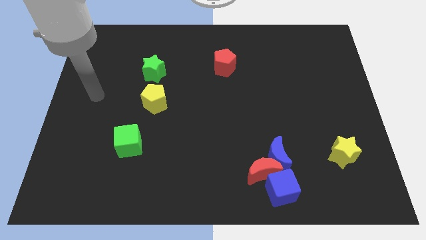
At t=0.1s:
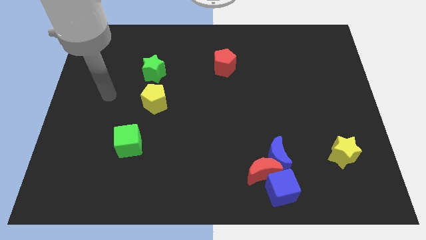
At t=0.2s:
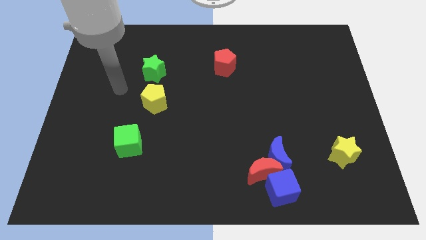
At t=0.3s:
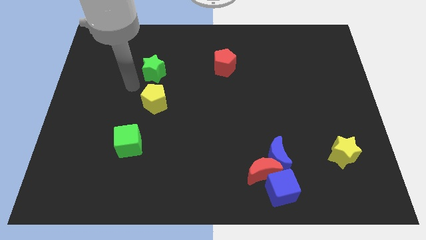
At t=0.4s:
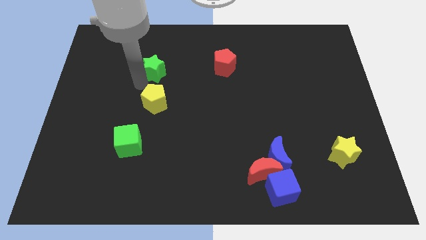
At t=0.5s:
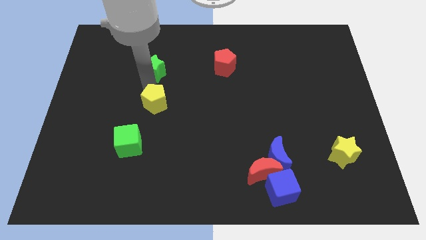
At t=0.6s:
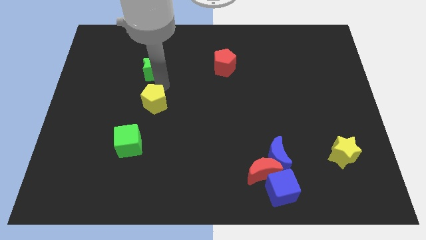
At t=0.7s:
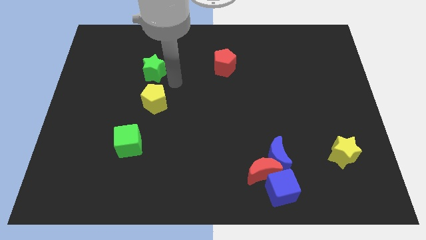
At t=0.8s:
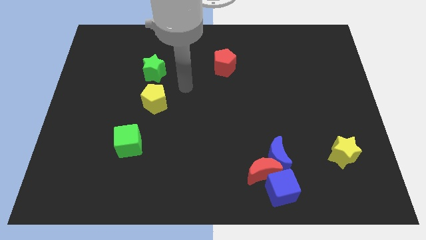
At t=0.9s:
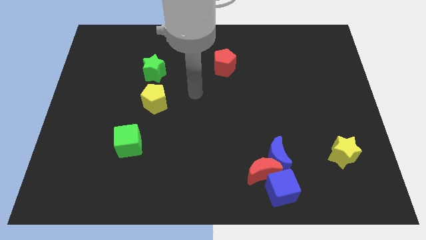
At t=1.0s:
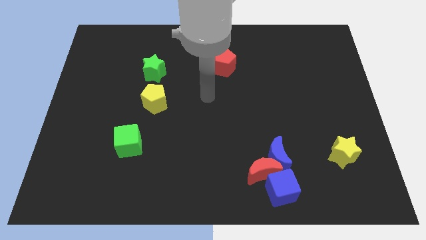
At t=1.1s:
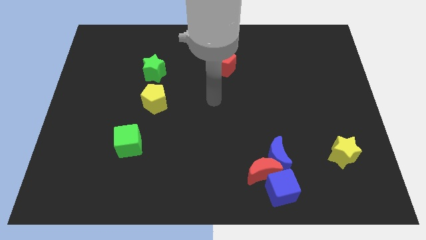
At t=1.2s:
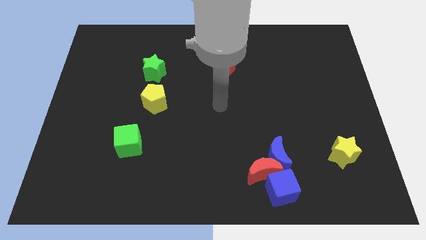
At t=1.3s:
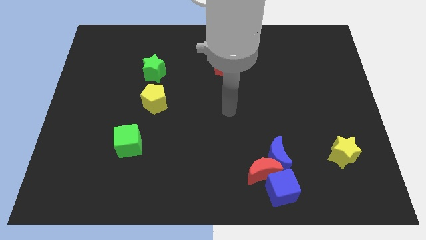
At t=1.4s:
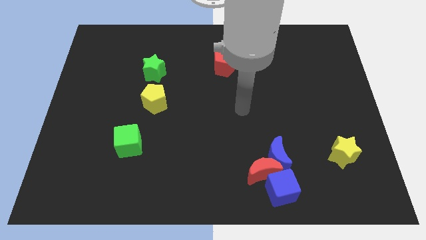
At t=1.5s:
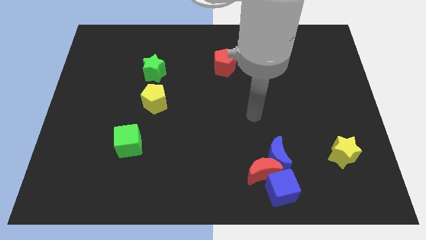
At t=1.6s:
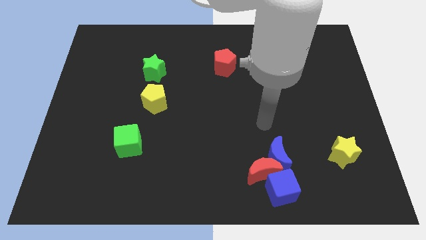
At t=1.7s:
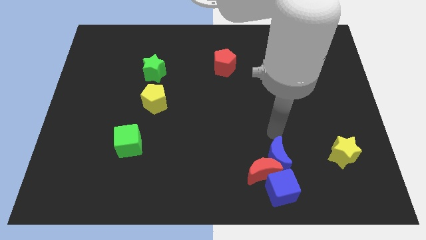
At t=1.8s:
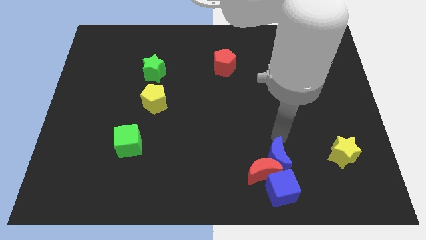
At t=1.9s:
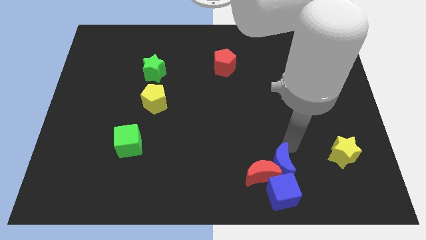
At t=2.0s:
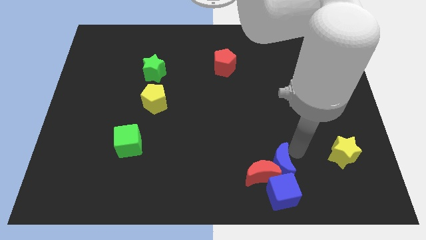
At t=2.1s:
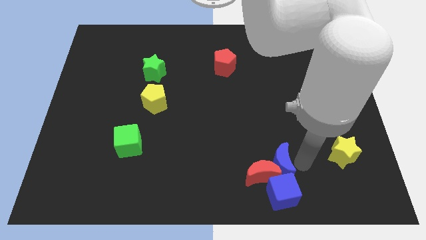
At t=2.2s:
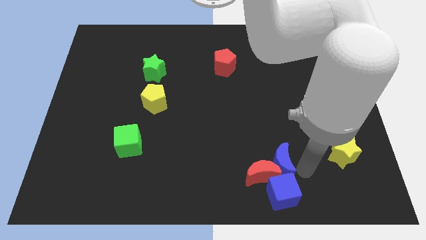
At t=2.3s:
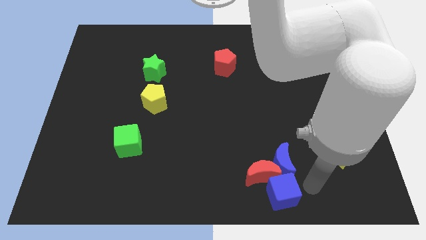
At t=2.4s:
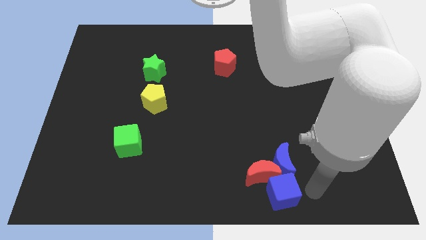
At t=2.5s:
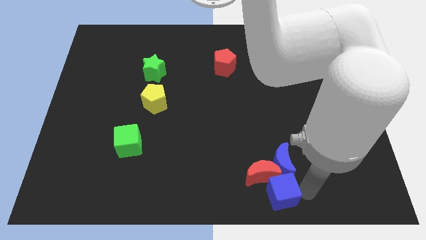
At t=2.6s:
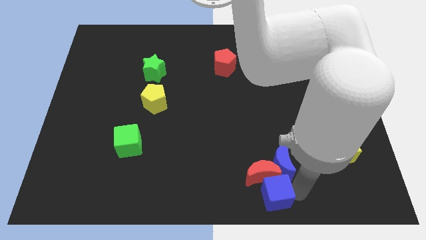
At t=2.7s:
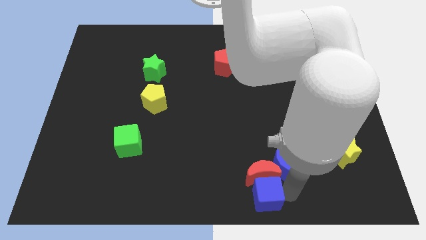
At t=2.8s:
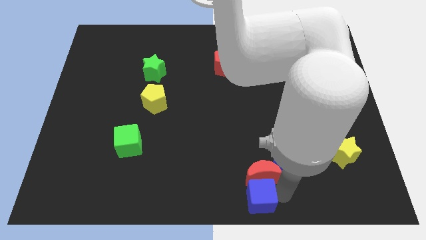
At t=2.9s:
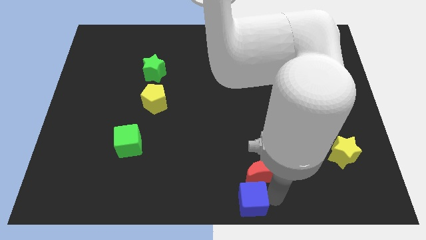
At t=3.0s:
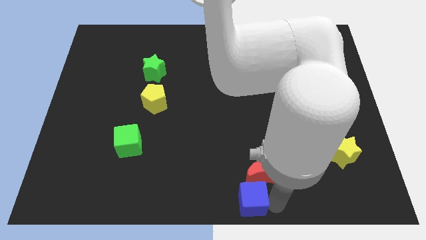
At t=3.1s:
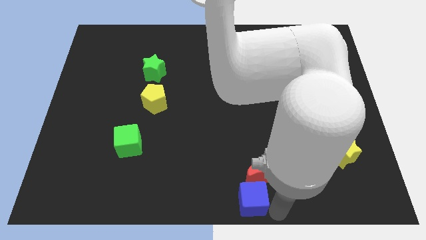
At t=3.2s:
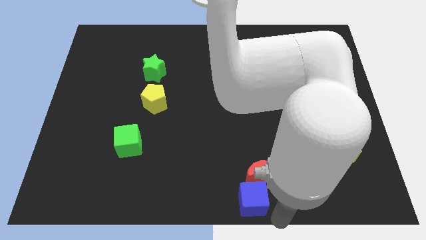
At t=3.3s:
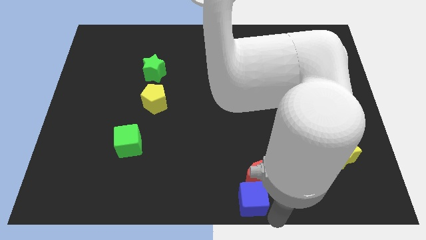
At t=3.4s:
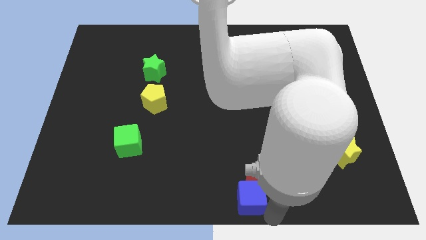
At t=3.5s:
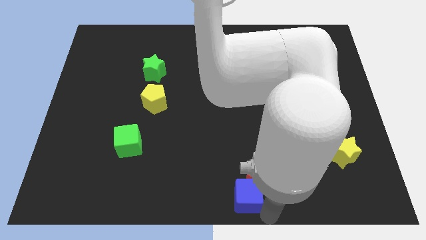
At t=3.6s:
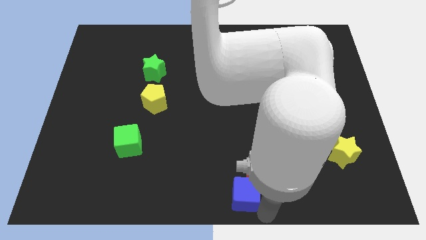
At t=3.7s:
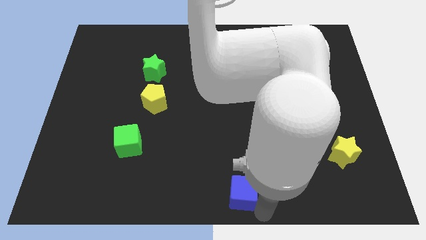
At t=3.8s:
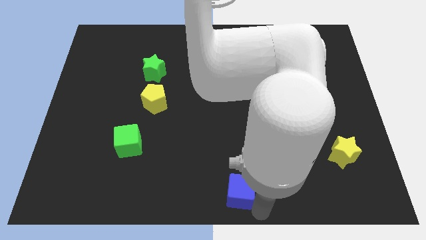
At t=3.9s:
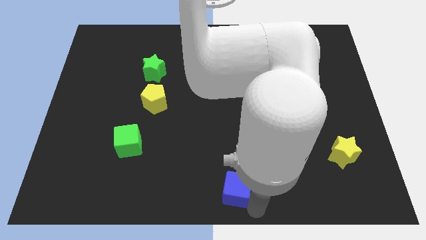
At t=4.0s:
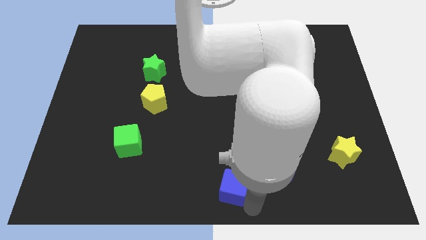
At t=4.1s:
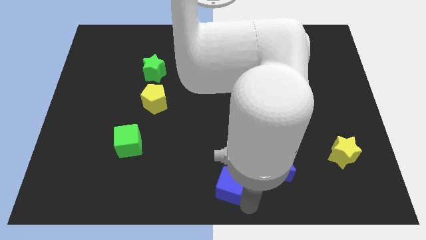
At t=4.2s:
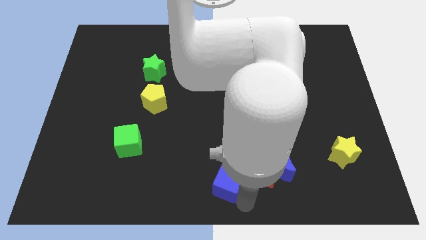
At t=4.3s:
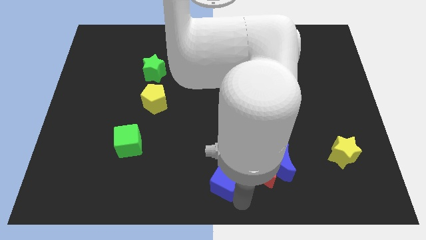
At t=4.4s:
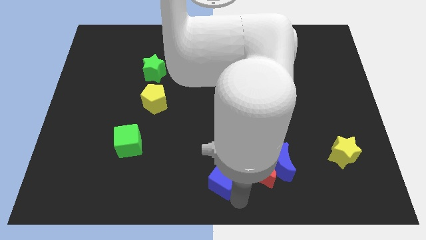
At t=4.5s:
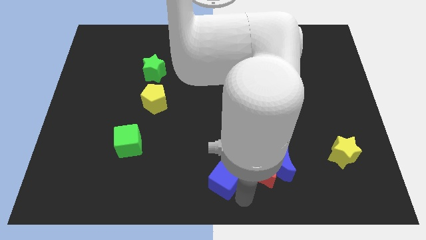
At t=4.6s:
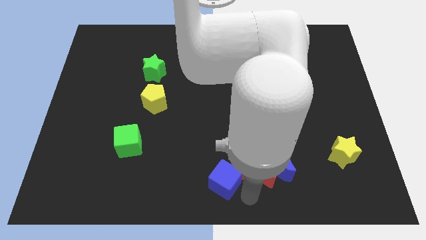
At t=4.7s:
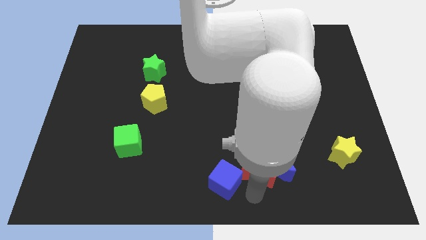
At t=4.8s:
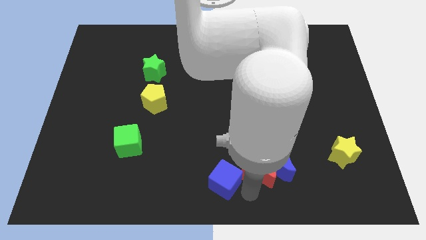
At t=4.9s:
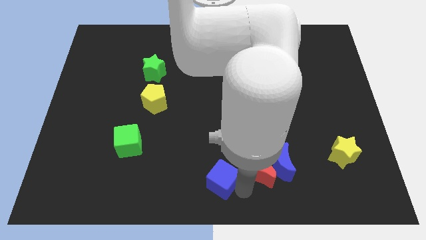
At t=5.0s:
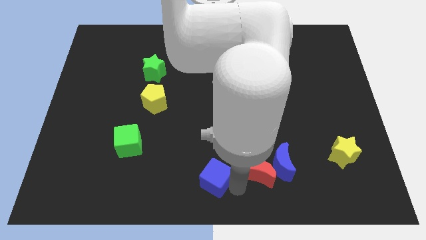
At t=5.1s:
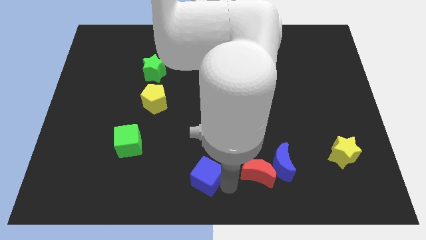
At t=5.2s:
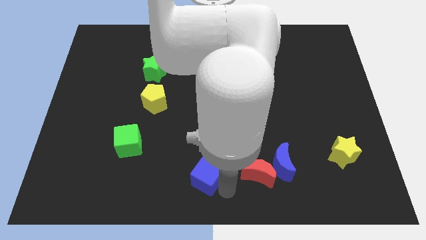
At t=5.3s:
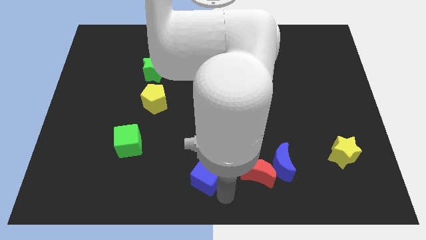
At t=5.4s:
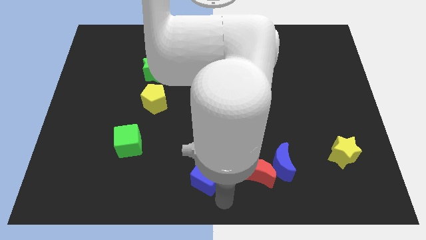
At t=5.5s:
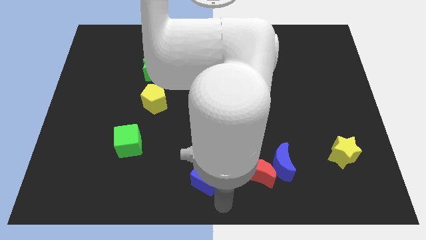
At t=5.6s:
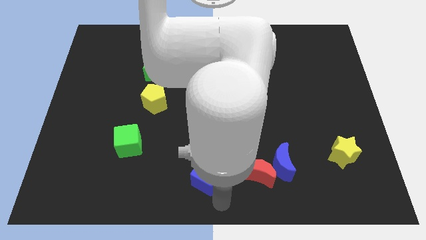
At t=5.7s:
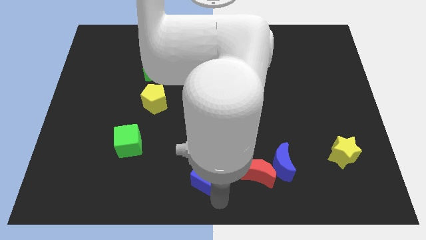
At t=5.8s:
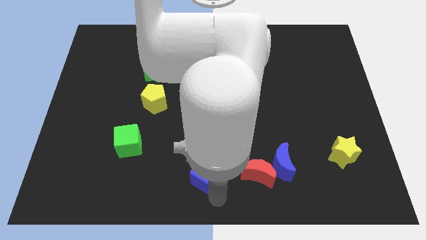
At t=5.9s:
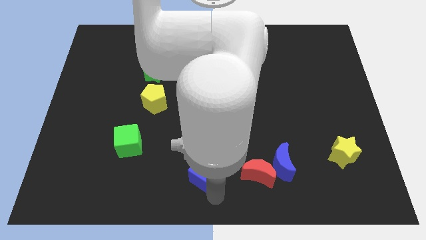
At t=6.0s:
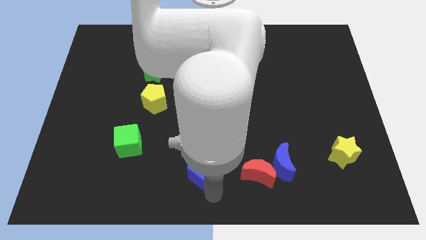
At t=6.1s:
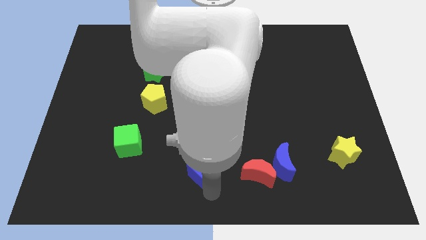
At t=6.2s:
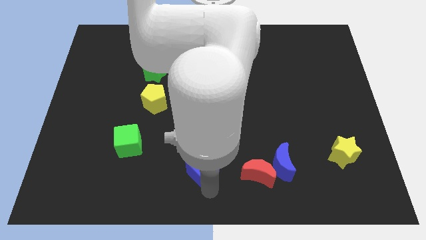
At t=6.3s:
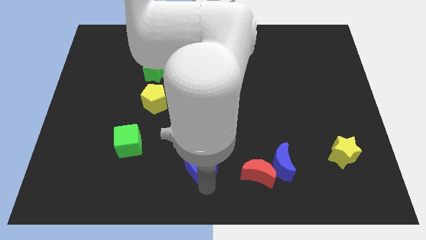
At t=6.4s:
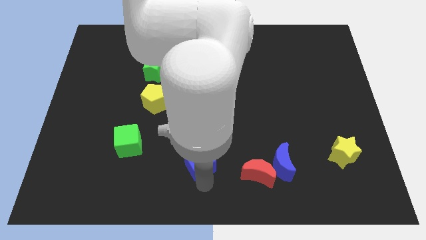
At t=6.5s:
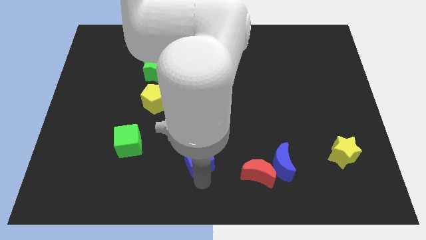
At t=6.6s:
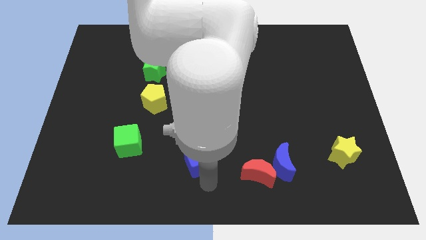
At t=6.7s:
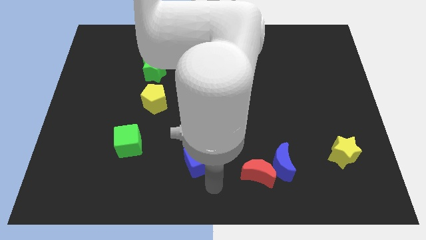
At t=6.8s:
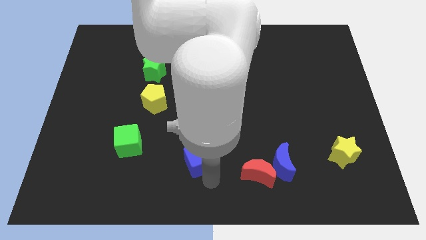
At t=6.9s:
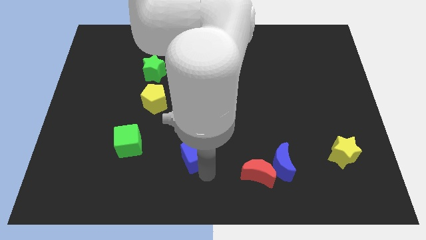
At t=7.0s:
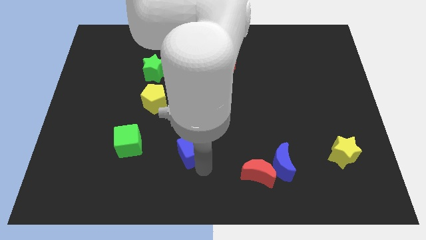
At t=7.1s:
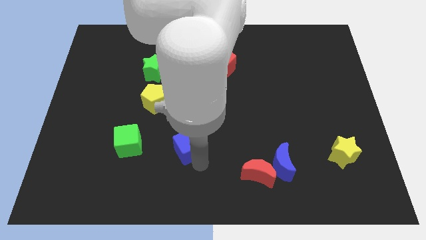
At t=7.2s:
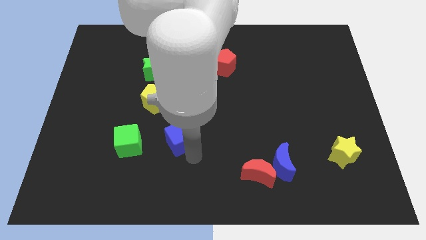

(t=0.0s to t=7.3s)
push the blue cube diagonally upwards and to the left

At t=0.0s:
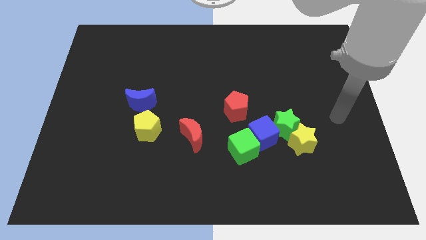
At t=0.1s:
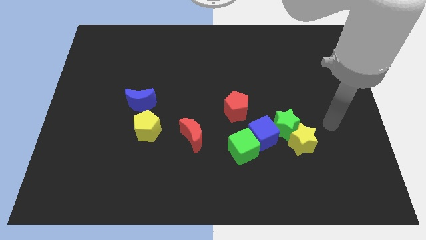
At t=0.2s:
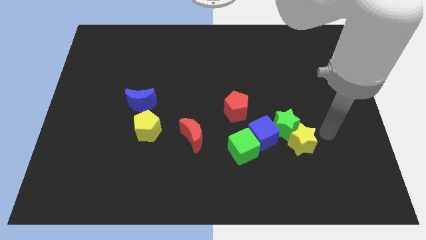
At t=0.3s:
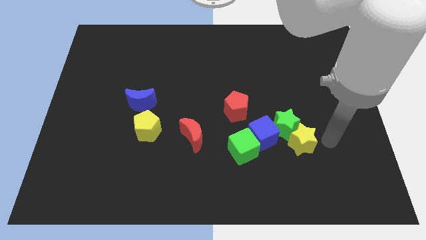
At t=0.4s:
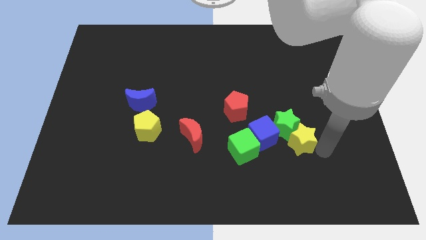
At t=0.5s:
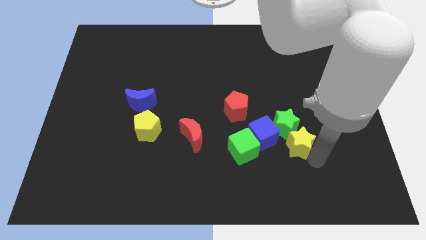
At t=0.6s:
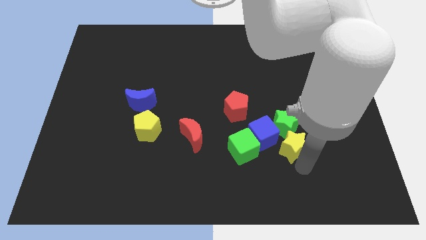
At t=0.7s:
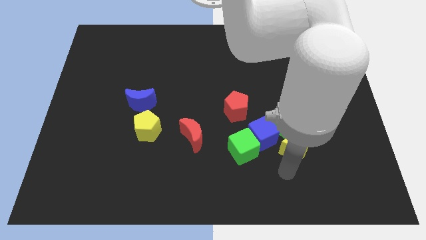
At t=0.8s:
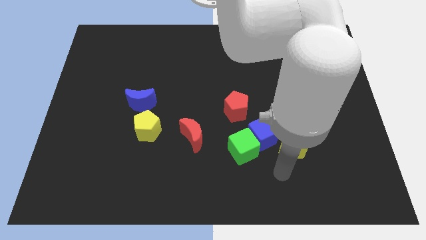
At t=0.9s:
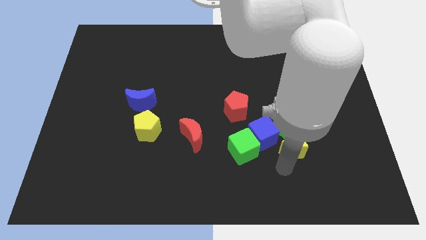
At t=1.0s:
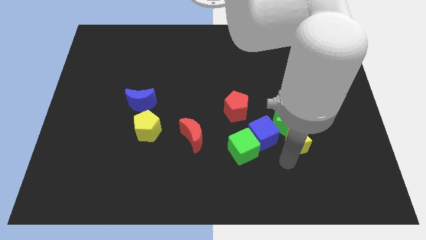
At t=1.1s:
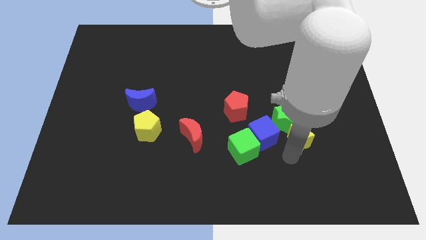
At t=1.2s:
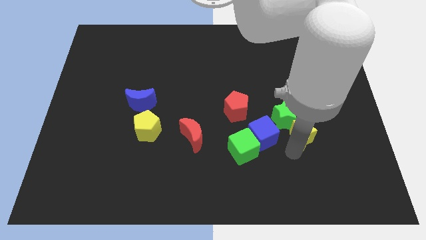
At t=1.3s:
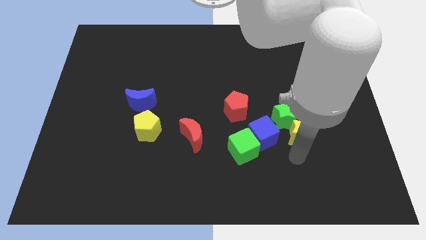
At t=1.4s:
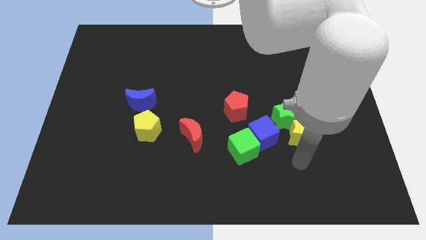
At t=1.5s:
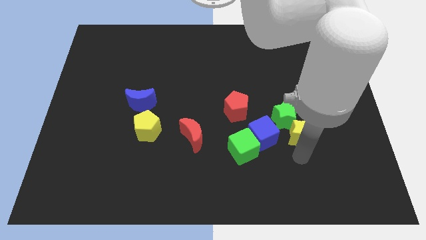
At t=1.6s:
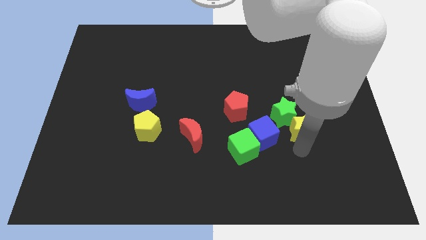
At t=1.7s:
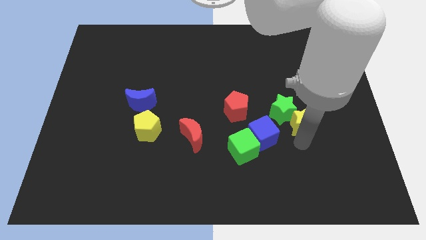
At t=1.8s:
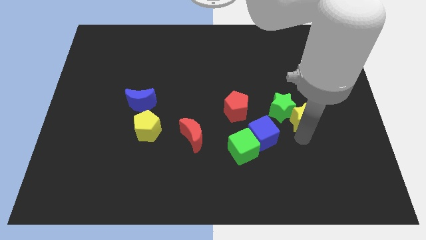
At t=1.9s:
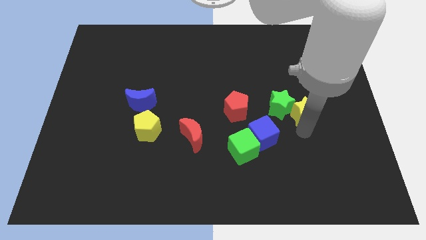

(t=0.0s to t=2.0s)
slide the yellow star upwards a little bit
